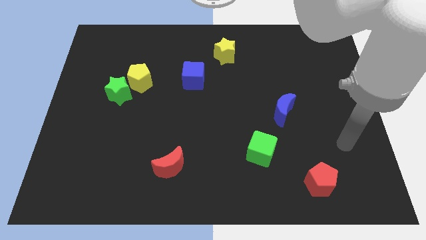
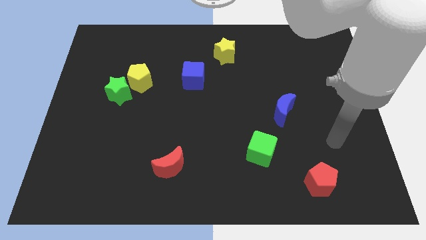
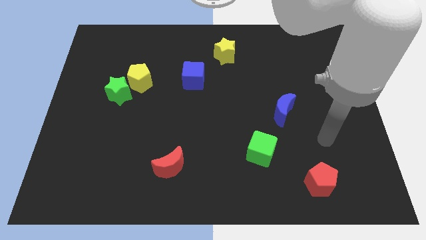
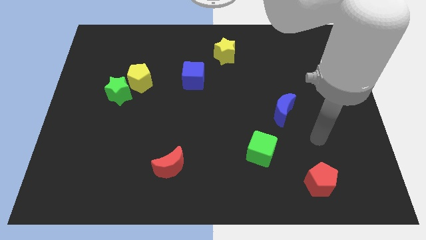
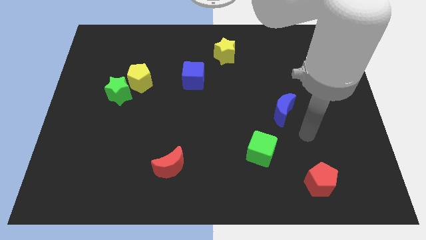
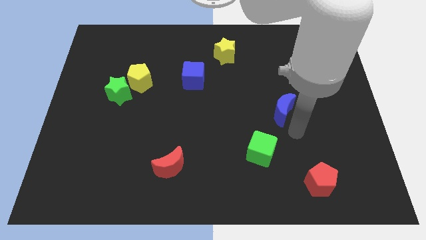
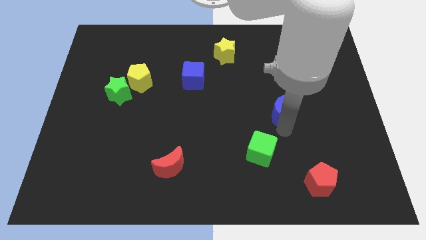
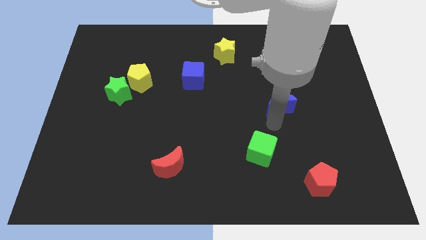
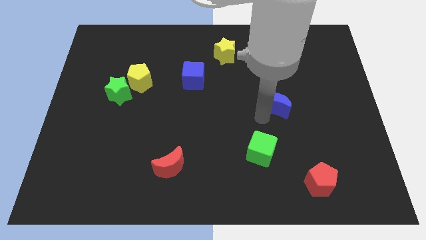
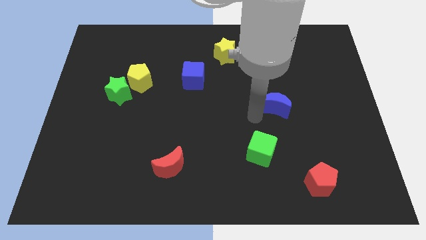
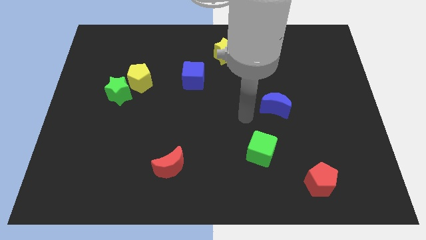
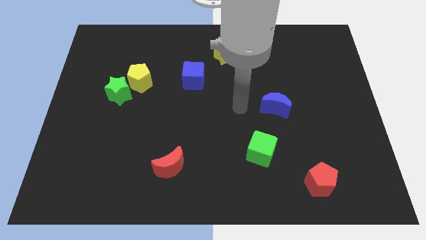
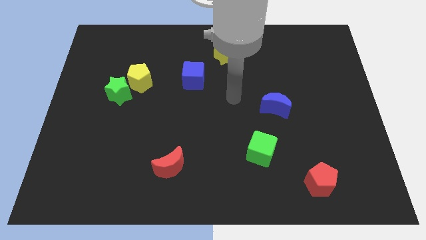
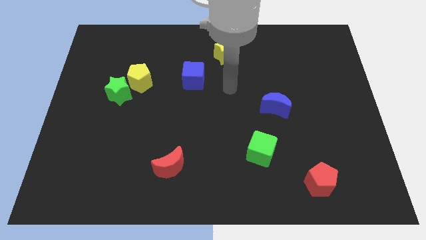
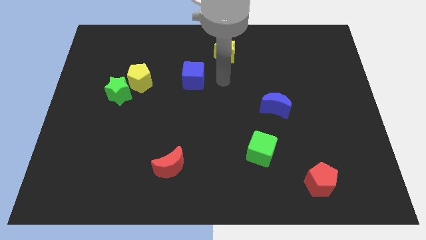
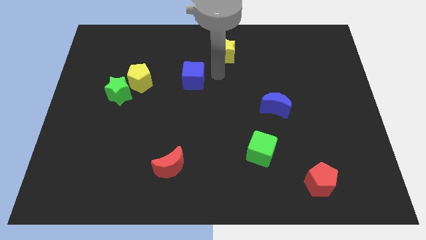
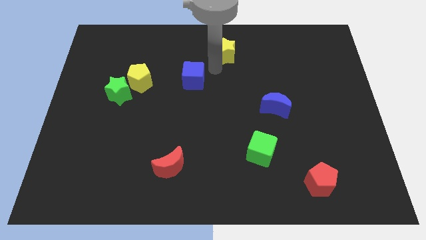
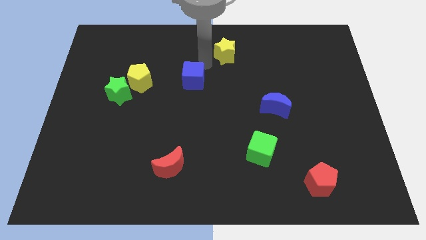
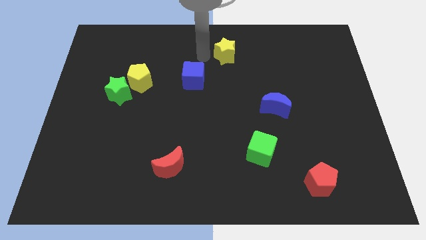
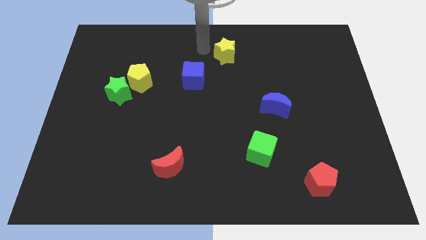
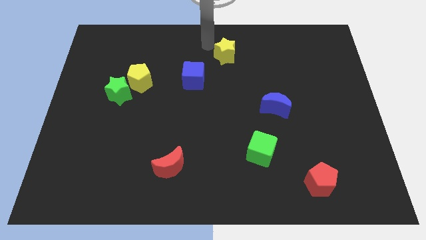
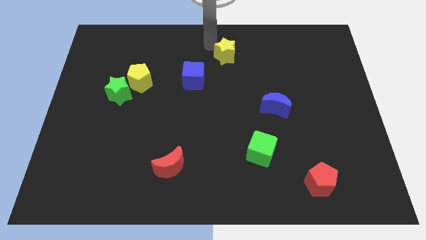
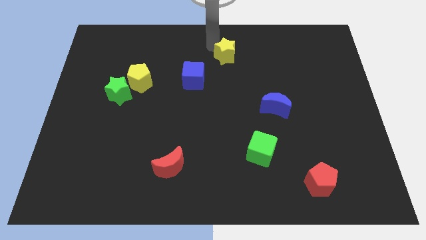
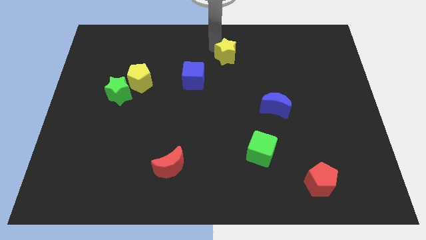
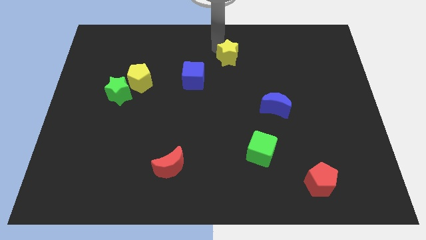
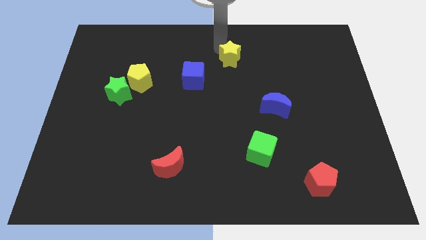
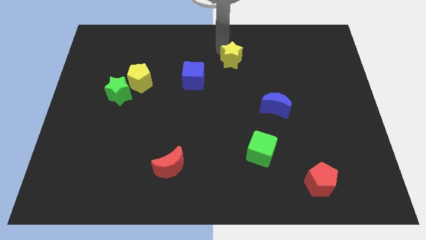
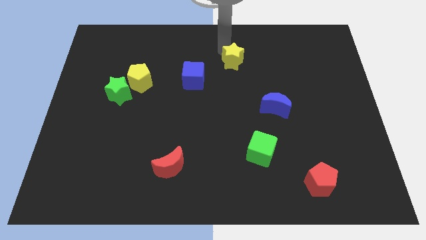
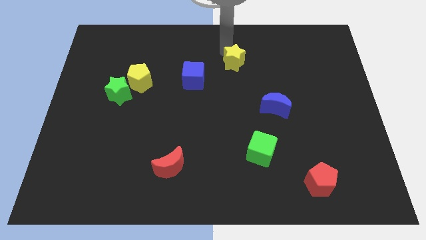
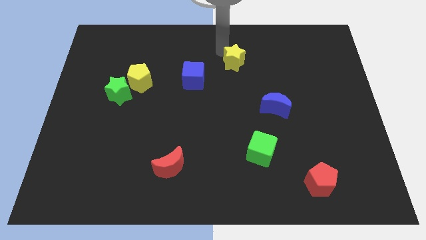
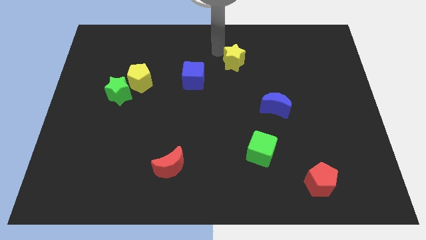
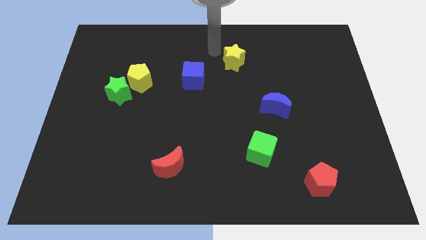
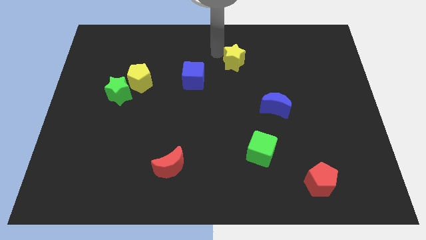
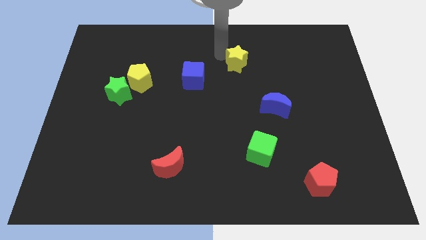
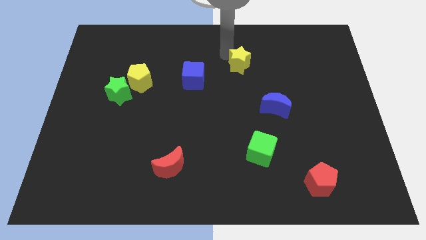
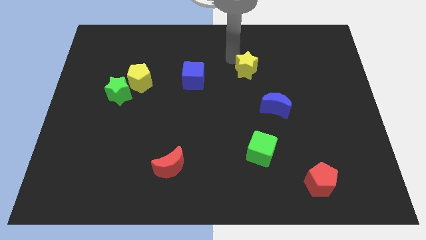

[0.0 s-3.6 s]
push the yellow star downwards and to the right diagonally a little

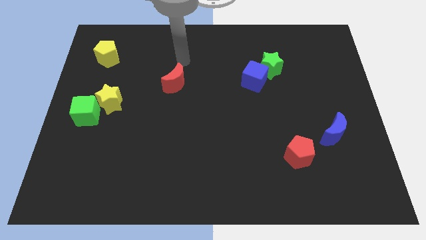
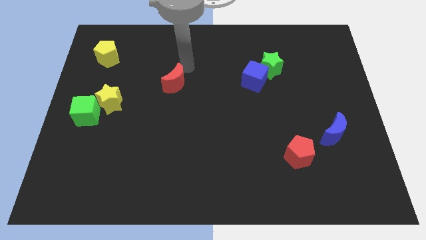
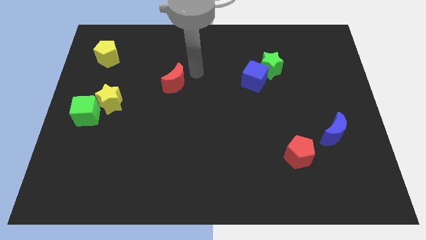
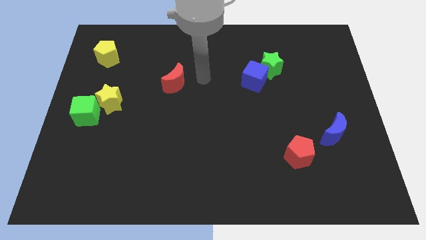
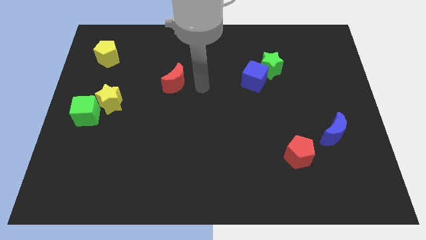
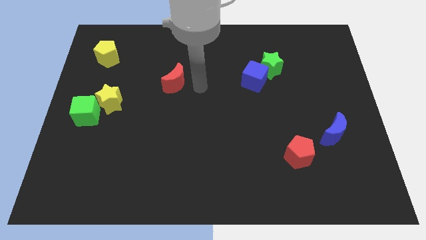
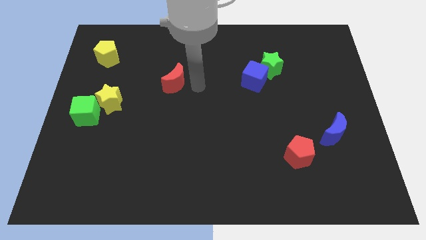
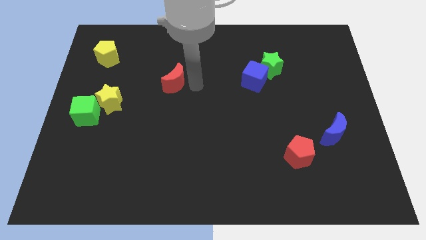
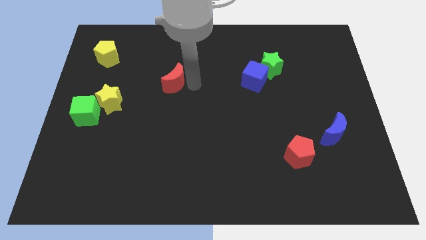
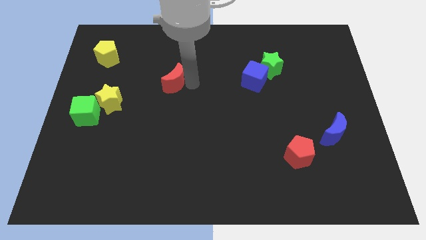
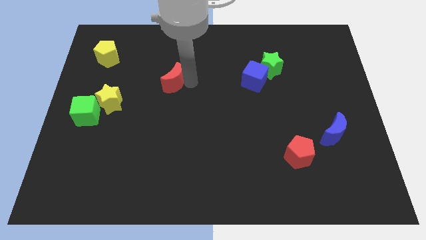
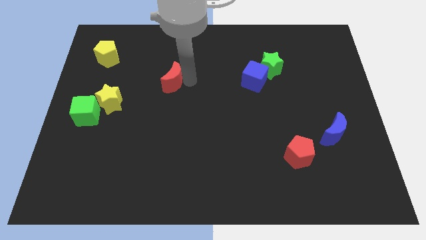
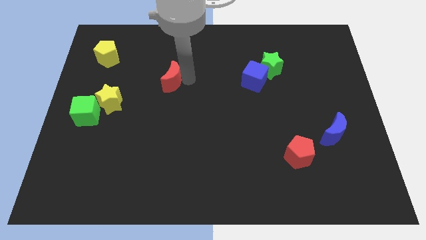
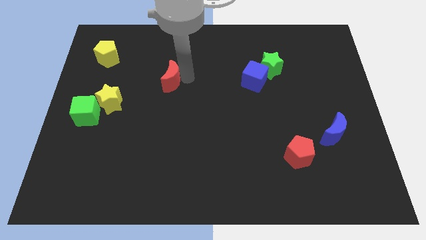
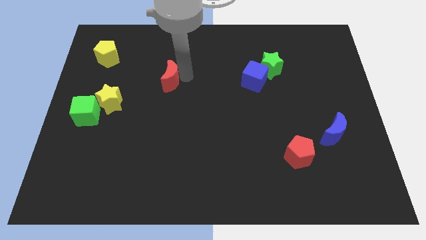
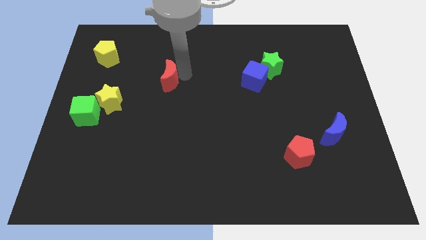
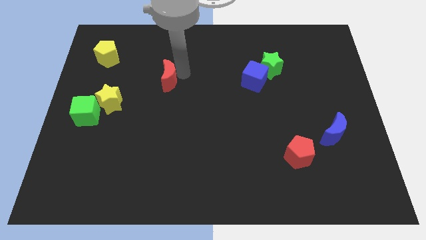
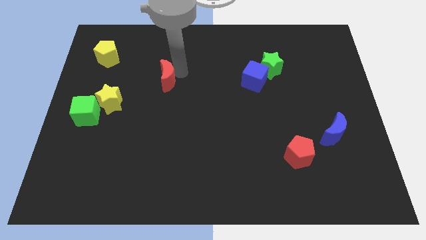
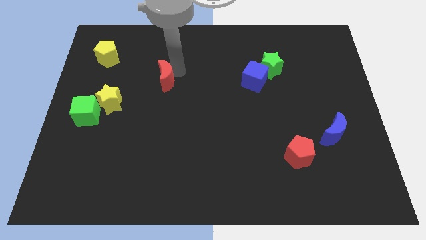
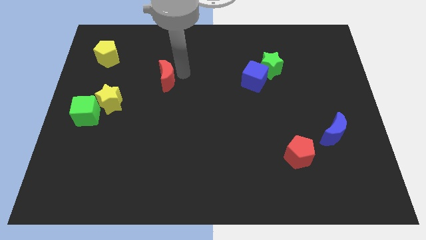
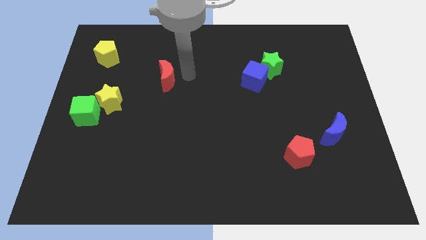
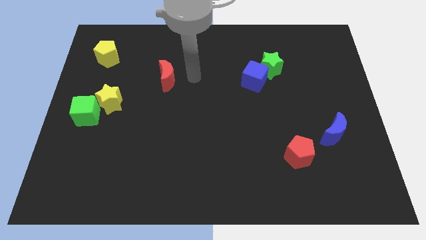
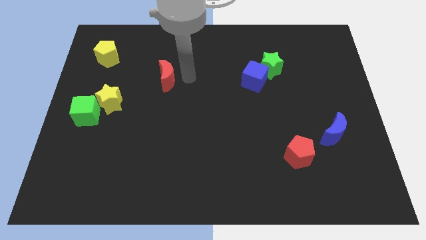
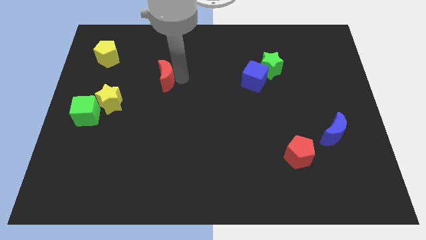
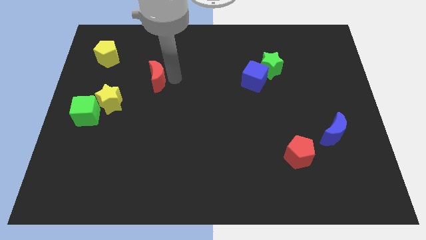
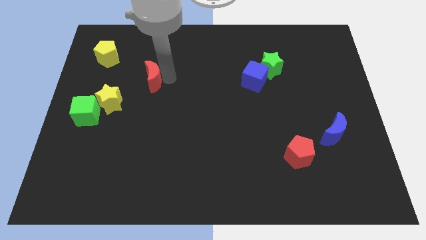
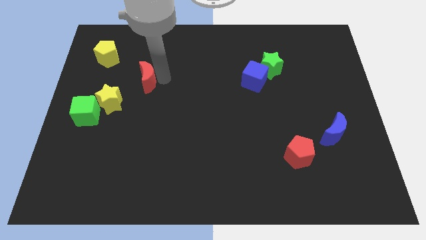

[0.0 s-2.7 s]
slightly push the red moon left

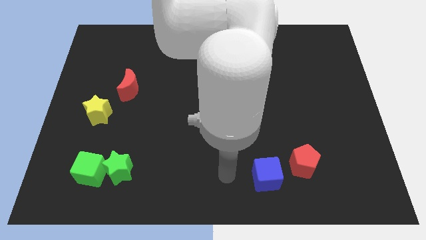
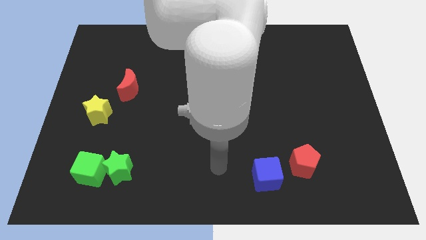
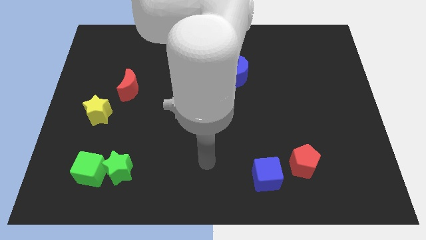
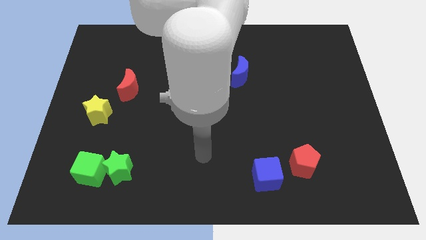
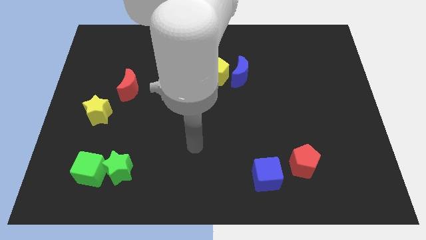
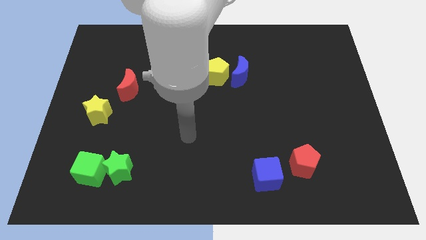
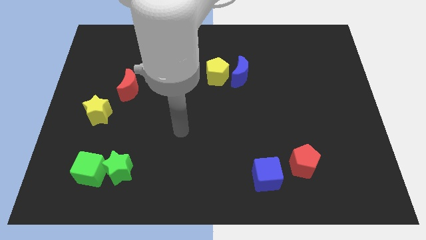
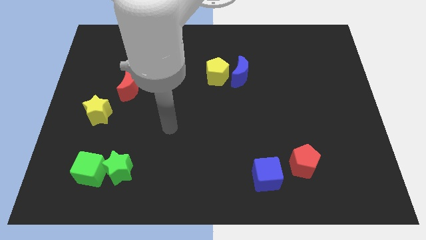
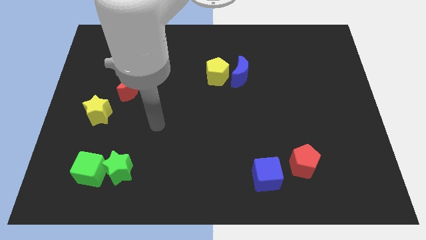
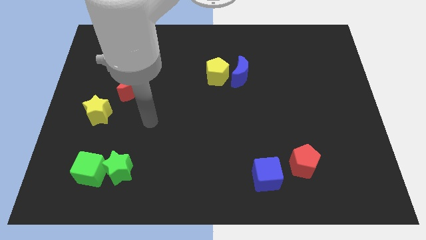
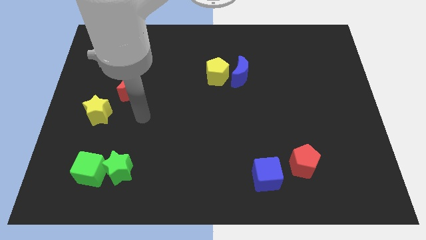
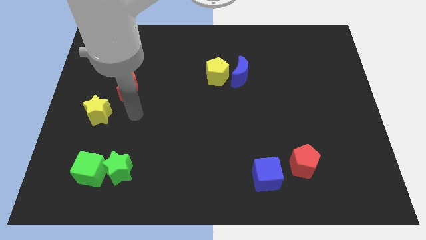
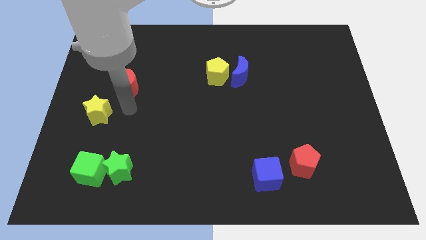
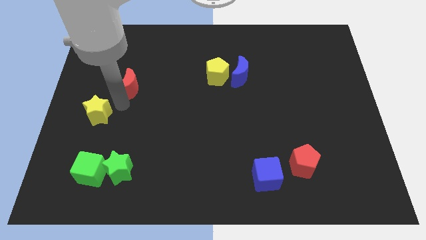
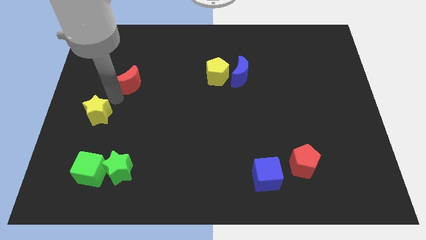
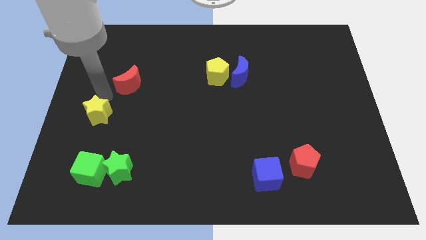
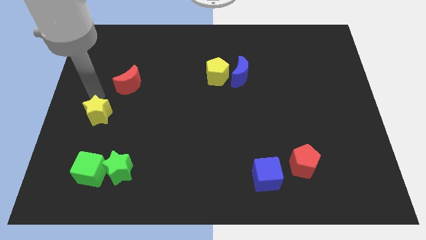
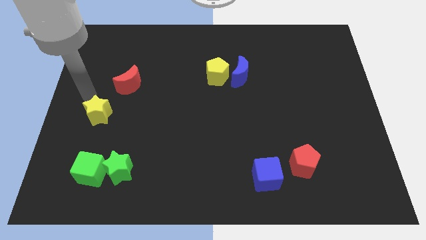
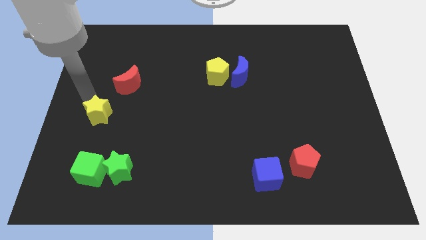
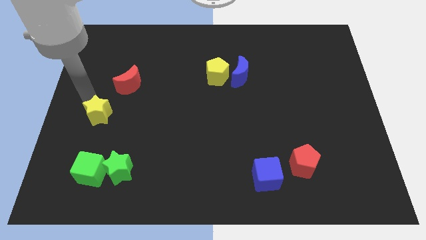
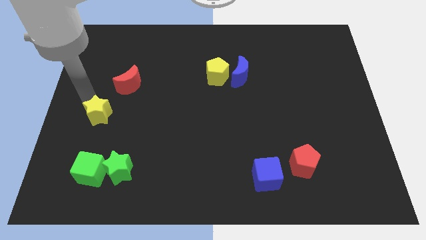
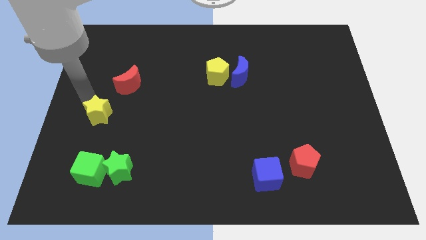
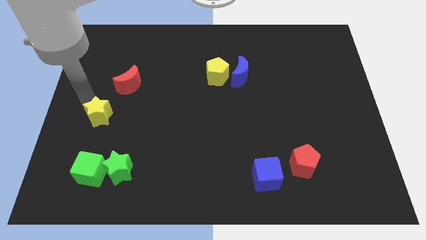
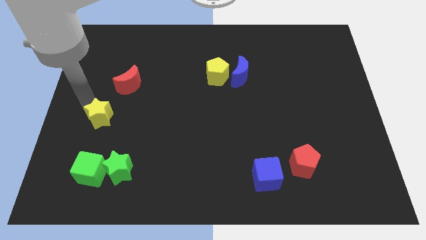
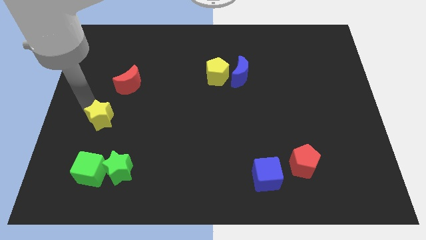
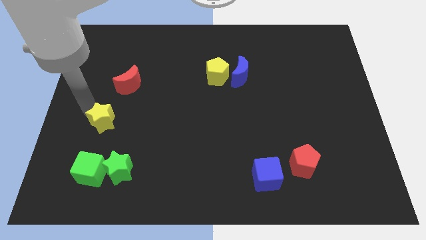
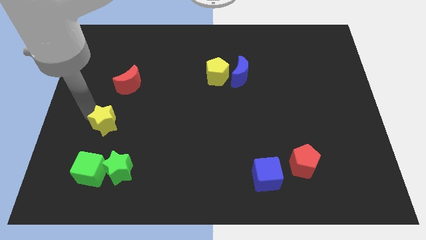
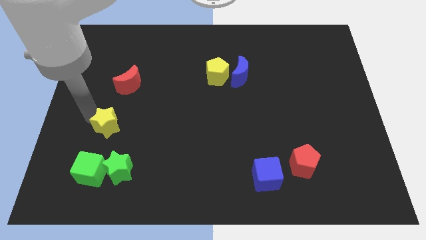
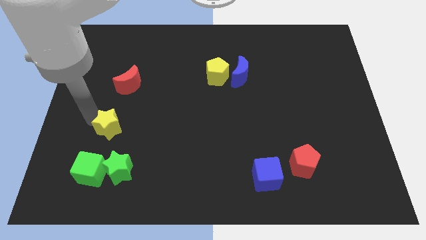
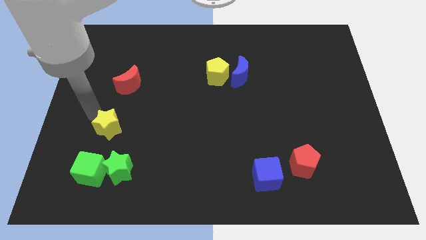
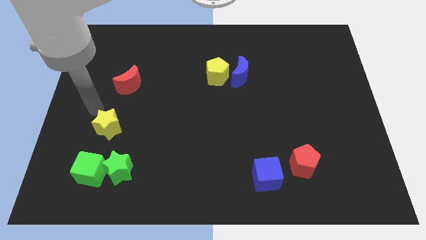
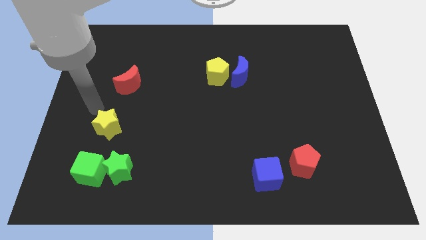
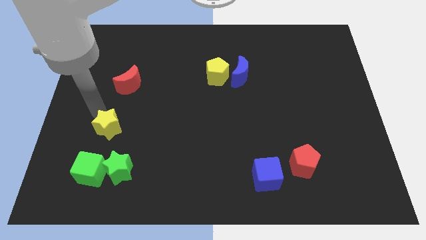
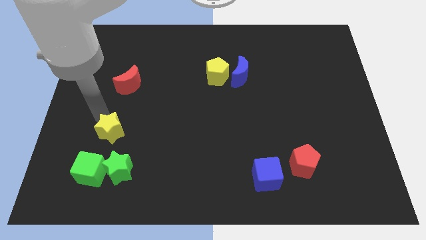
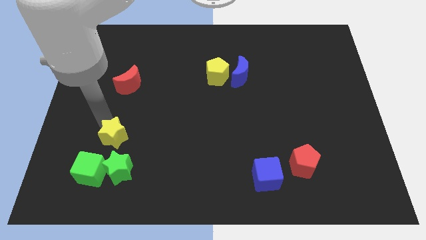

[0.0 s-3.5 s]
slightly slide the yellow star downwards and then right
